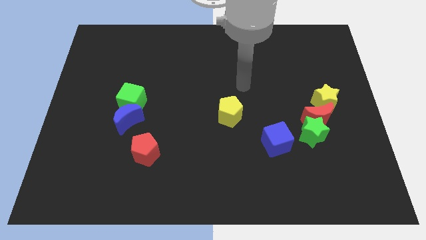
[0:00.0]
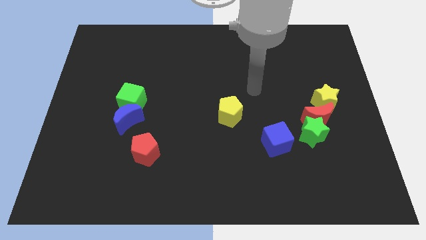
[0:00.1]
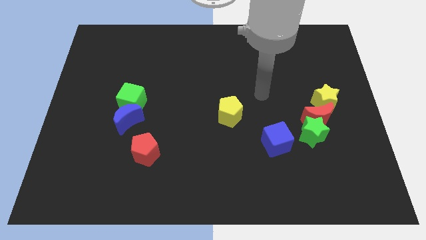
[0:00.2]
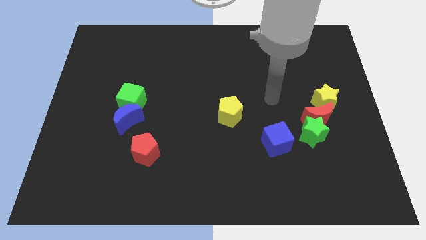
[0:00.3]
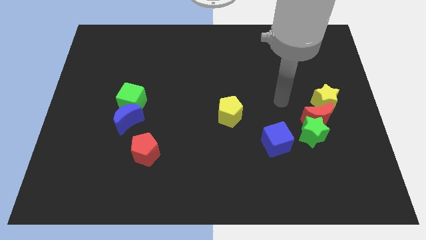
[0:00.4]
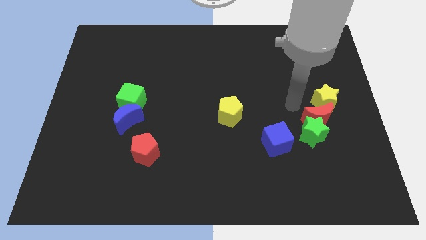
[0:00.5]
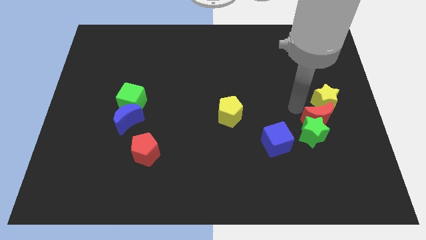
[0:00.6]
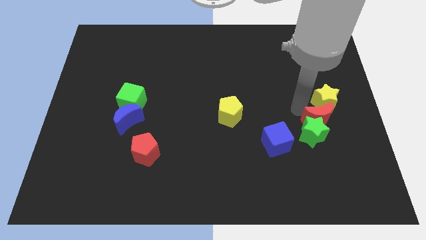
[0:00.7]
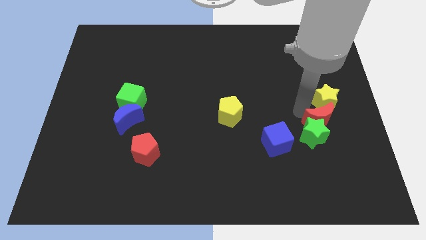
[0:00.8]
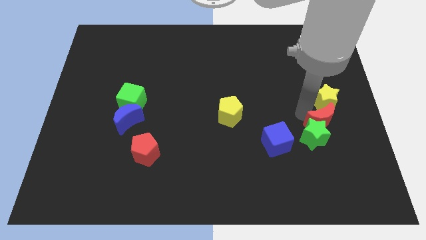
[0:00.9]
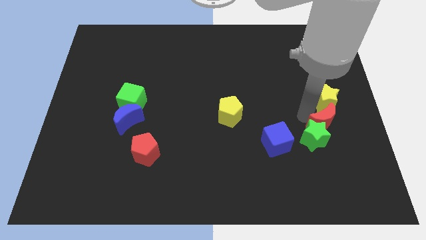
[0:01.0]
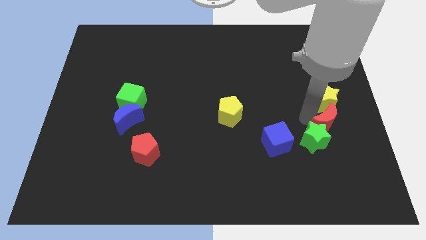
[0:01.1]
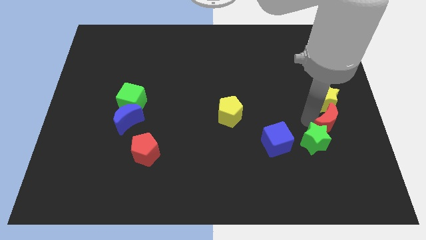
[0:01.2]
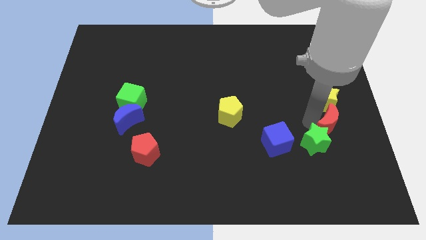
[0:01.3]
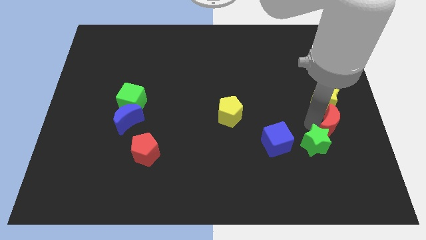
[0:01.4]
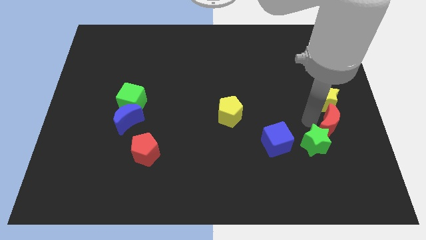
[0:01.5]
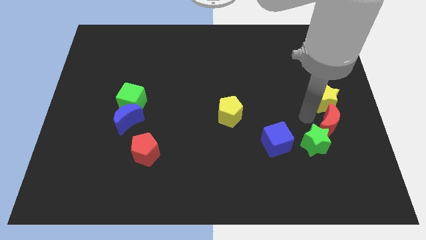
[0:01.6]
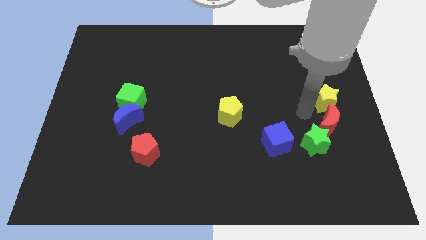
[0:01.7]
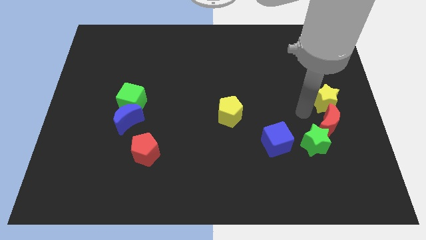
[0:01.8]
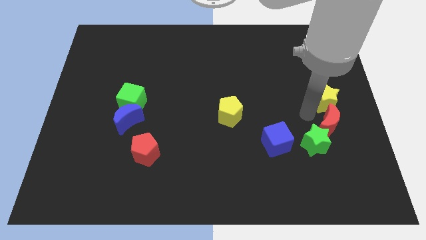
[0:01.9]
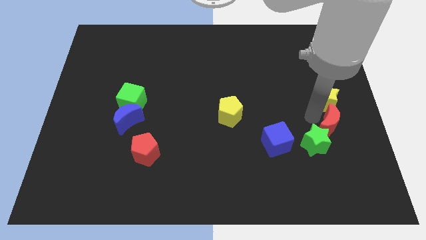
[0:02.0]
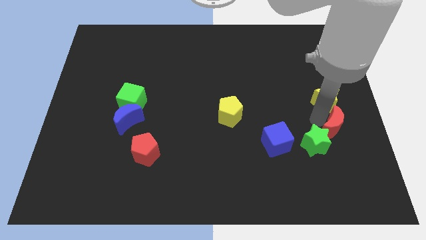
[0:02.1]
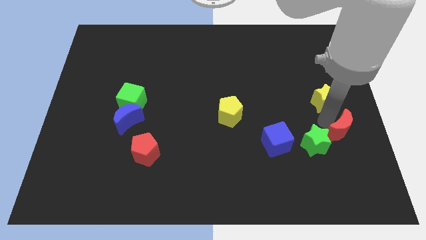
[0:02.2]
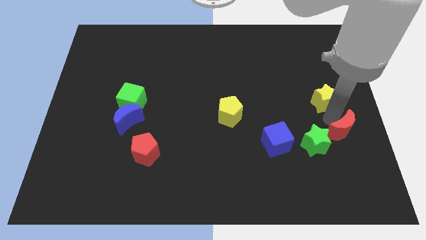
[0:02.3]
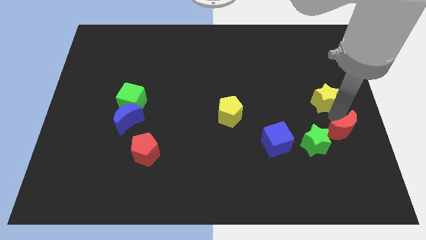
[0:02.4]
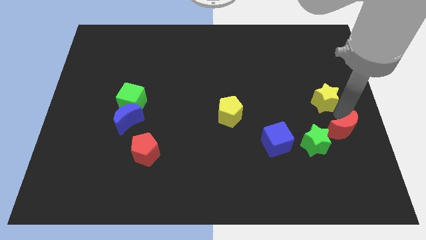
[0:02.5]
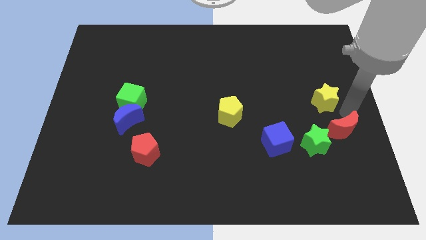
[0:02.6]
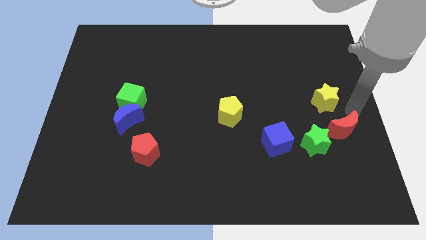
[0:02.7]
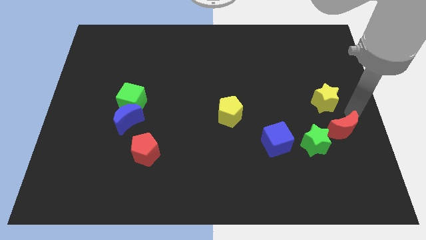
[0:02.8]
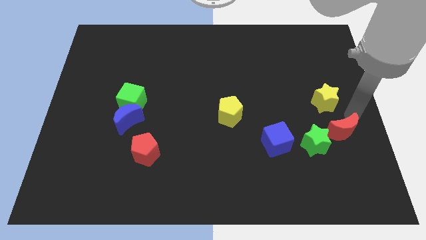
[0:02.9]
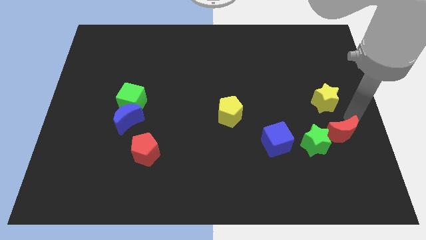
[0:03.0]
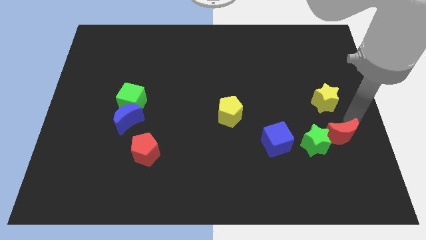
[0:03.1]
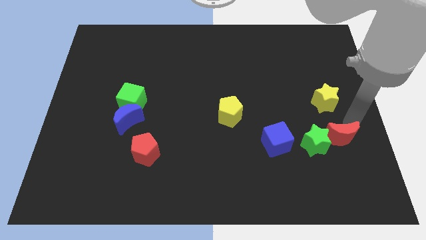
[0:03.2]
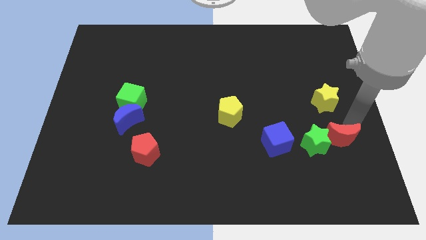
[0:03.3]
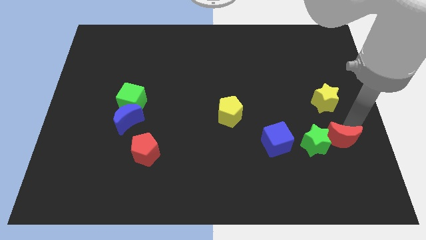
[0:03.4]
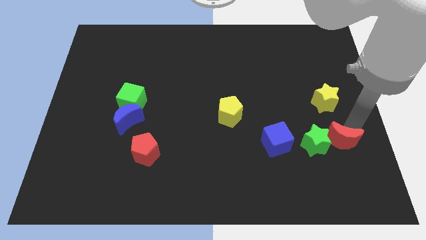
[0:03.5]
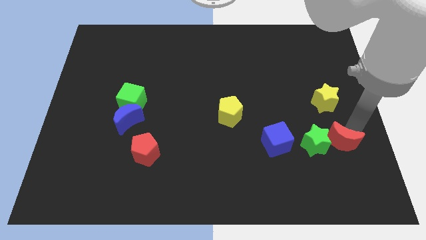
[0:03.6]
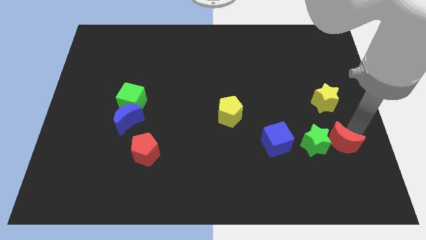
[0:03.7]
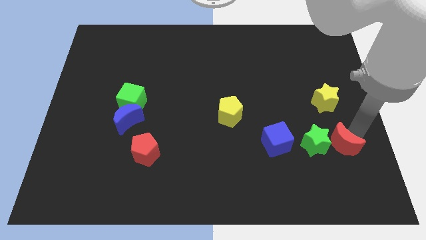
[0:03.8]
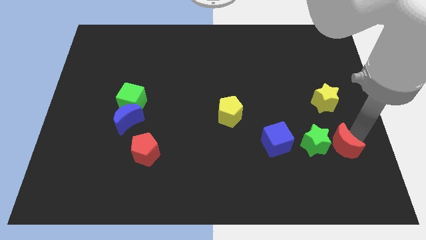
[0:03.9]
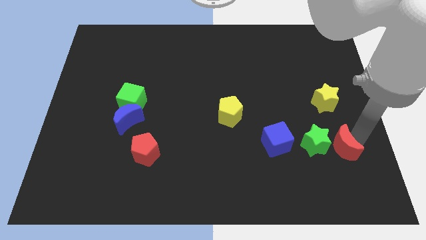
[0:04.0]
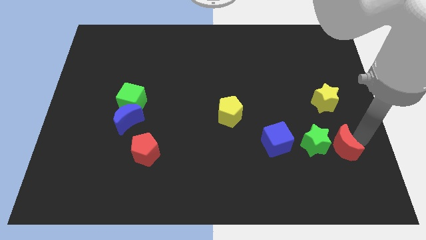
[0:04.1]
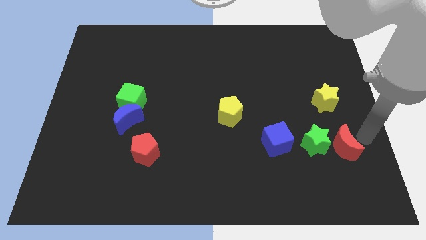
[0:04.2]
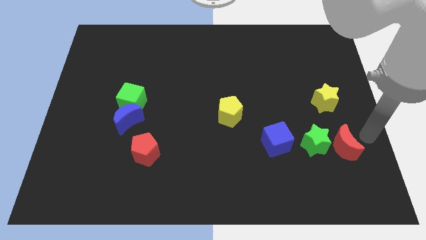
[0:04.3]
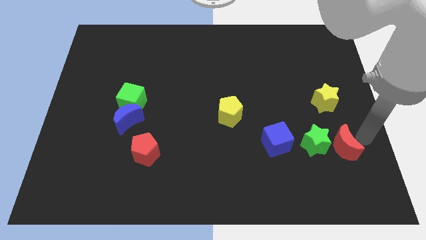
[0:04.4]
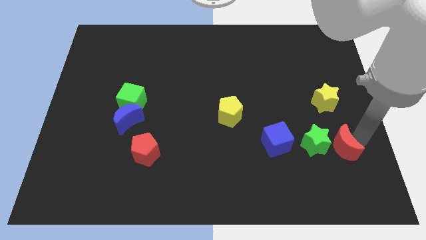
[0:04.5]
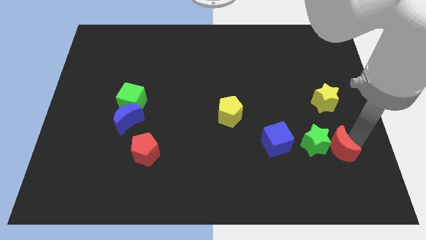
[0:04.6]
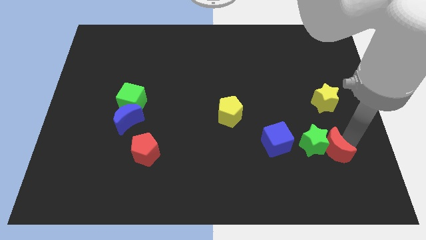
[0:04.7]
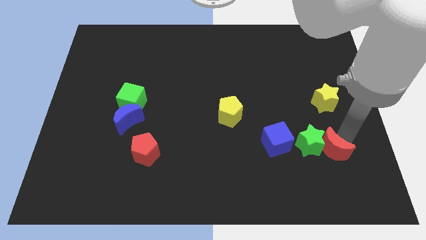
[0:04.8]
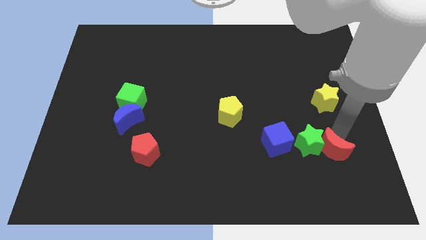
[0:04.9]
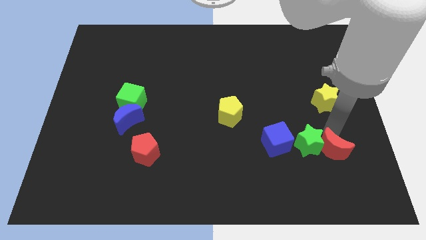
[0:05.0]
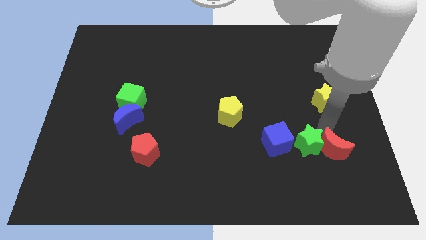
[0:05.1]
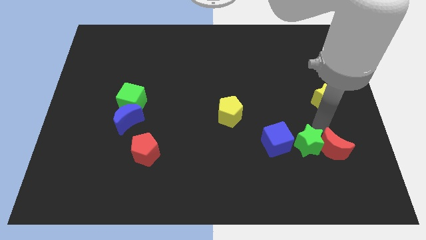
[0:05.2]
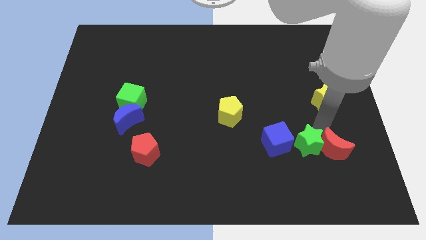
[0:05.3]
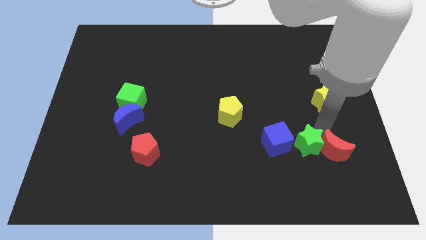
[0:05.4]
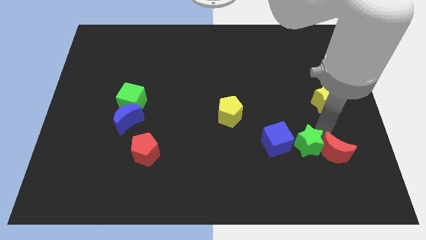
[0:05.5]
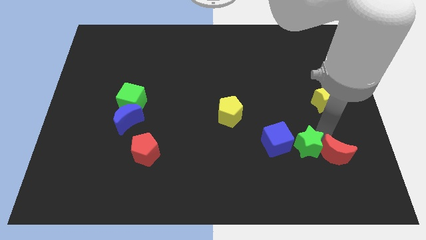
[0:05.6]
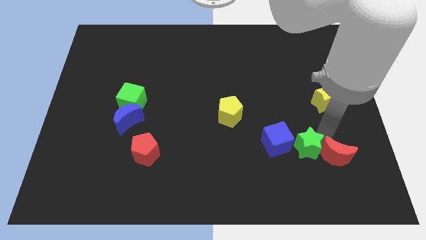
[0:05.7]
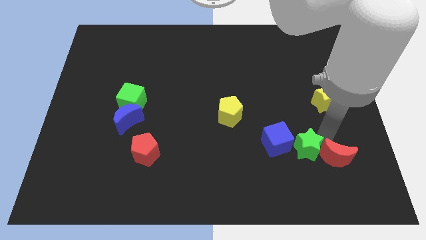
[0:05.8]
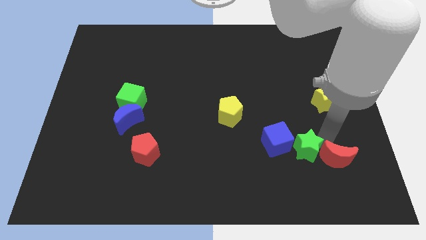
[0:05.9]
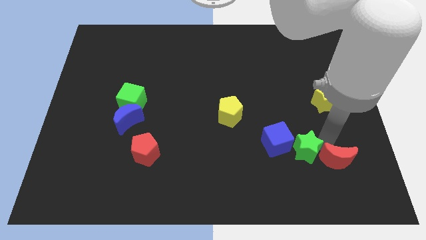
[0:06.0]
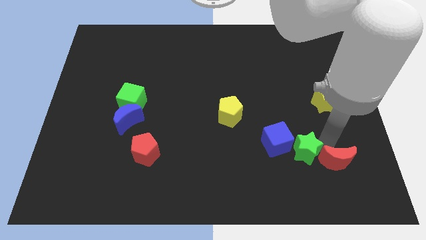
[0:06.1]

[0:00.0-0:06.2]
move the red moon away from the green star and yellow star

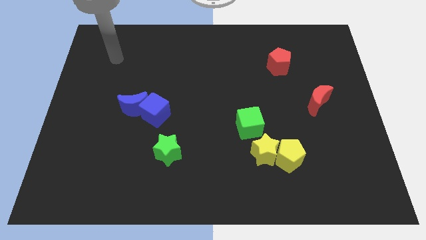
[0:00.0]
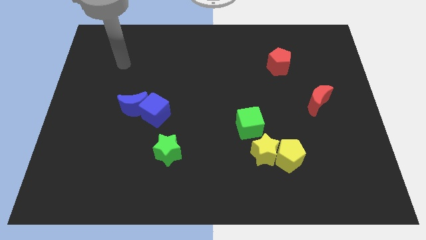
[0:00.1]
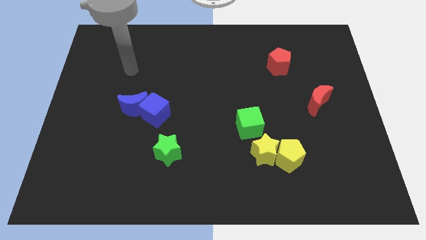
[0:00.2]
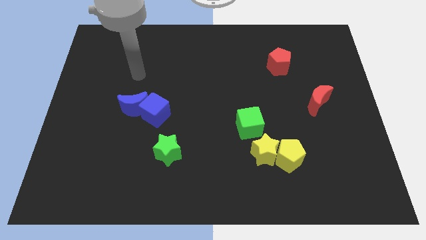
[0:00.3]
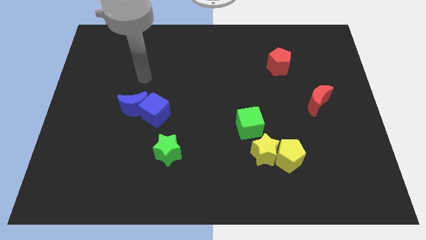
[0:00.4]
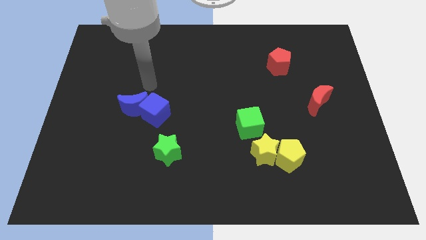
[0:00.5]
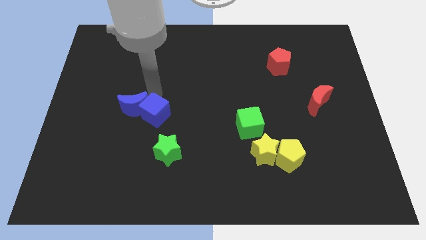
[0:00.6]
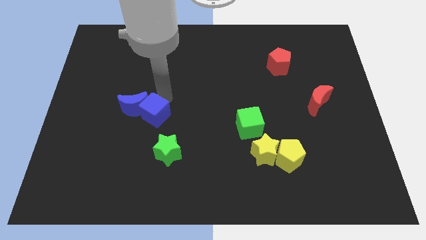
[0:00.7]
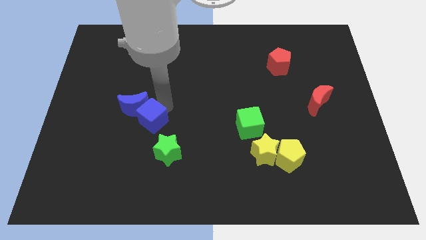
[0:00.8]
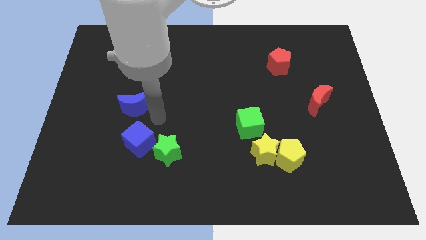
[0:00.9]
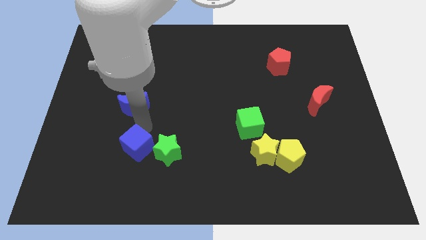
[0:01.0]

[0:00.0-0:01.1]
separate the blue moon from the blue cube

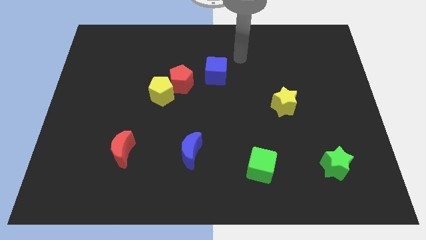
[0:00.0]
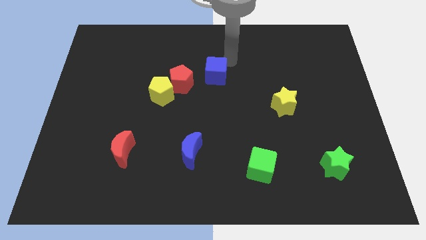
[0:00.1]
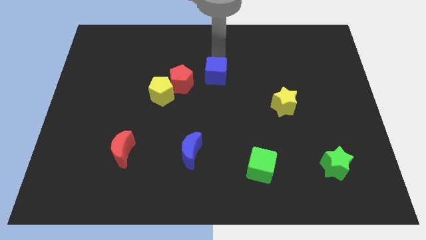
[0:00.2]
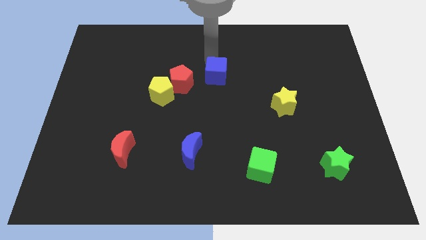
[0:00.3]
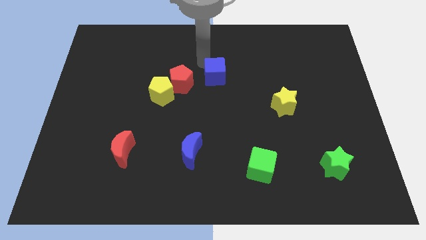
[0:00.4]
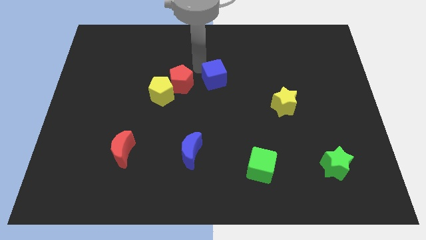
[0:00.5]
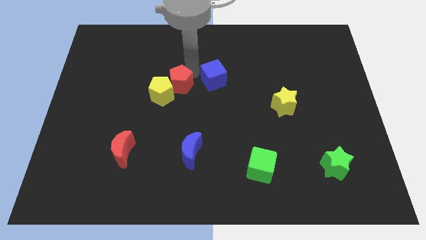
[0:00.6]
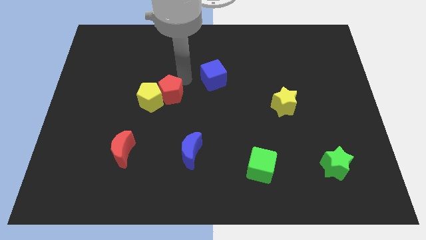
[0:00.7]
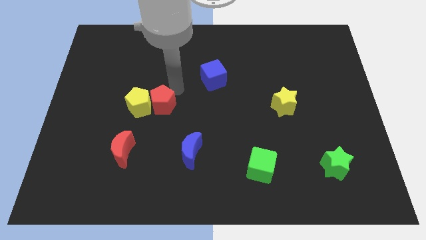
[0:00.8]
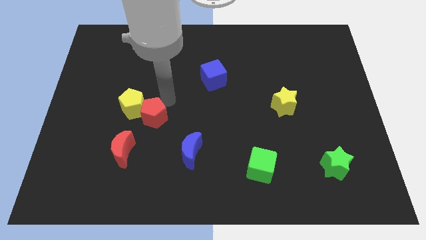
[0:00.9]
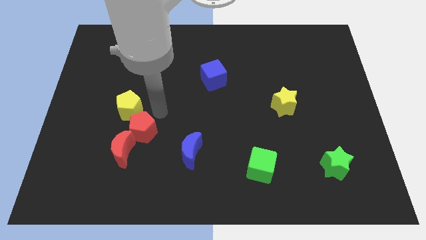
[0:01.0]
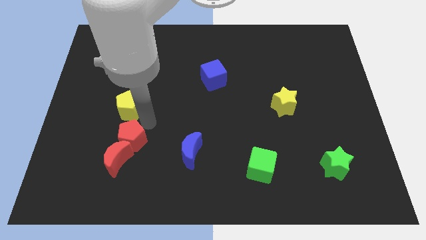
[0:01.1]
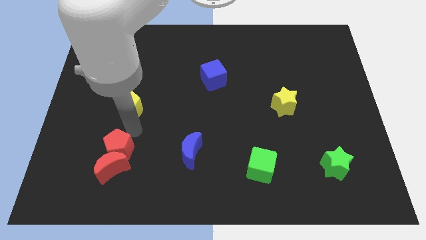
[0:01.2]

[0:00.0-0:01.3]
separate the yellow pentagon from the red pentagon

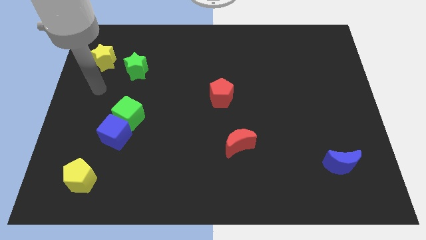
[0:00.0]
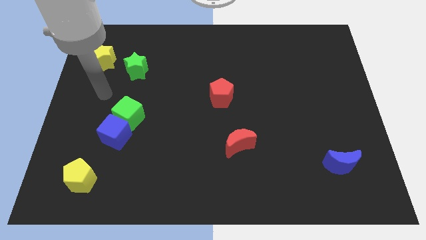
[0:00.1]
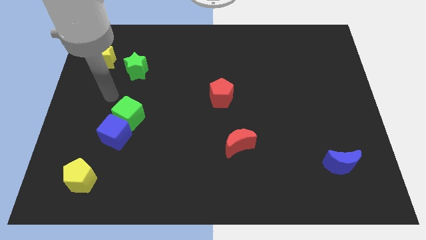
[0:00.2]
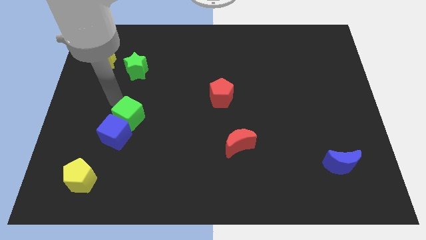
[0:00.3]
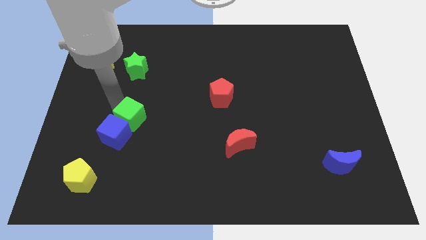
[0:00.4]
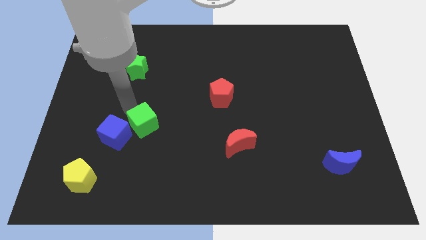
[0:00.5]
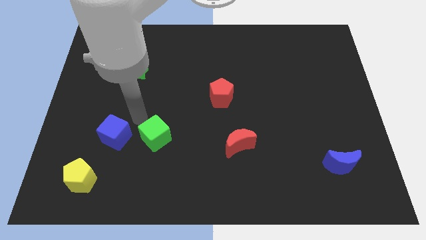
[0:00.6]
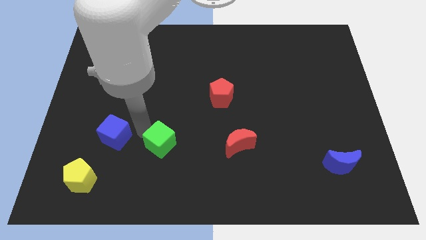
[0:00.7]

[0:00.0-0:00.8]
pull the blue cube apart from the green cube

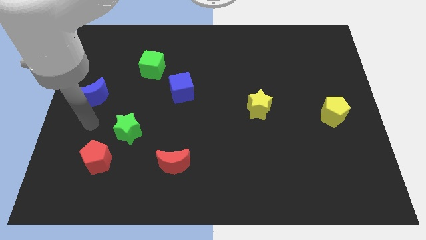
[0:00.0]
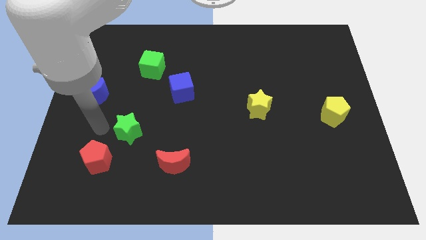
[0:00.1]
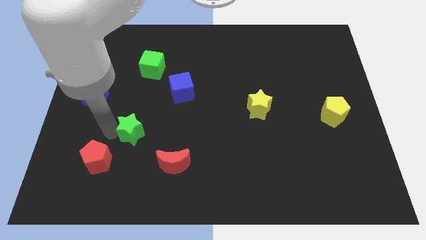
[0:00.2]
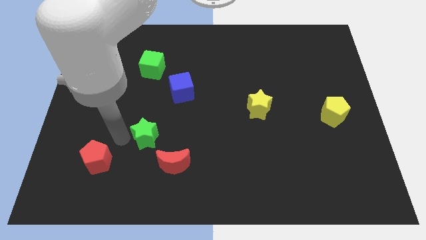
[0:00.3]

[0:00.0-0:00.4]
separate the red pentagon from the green star
